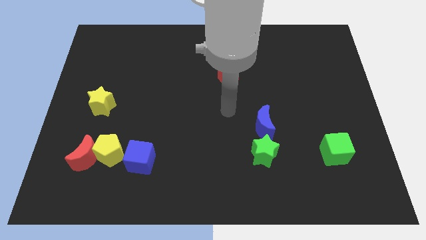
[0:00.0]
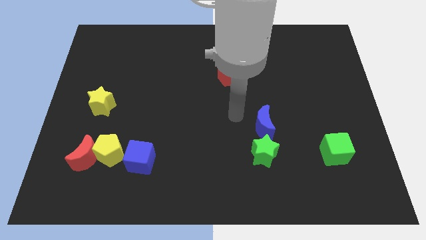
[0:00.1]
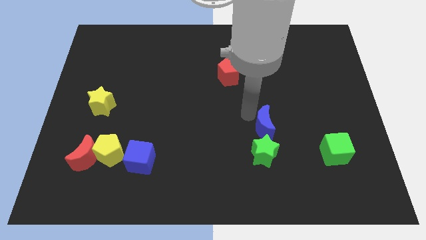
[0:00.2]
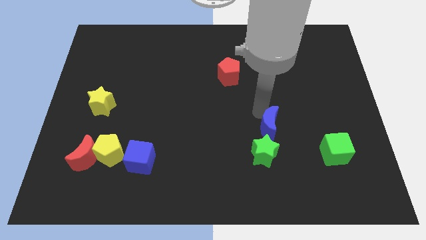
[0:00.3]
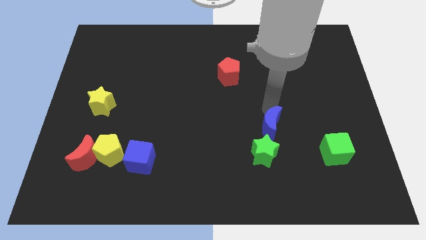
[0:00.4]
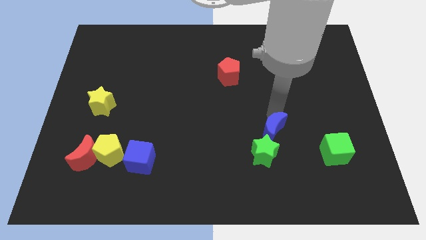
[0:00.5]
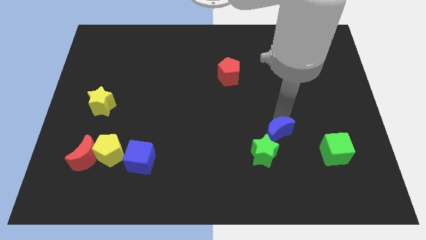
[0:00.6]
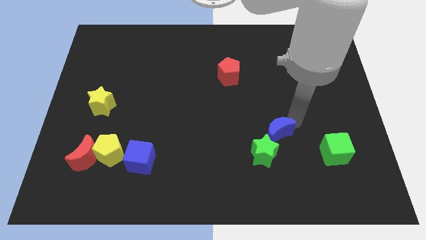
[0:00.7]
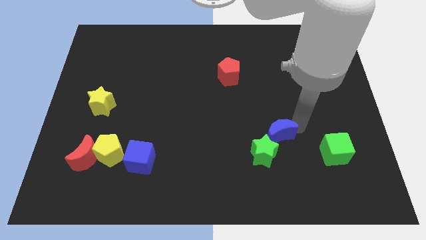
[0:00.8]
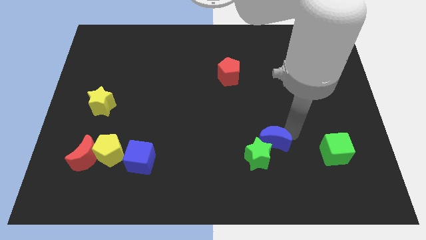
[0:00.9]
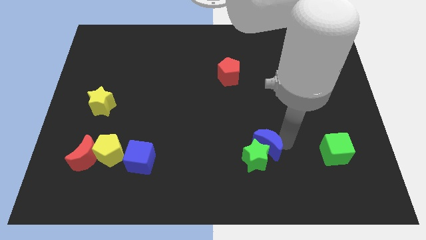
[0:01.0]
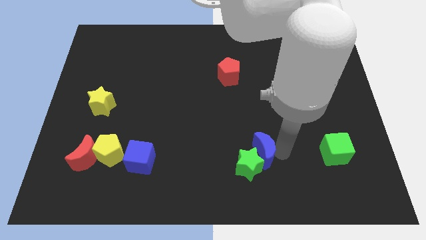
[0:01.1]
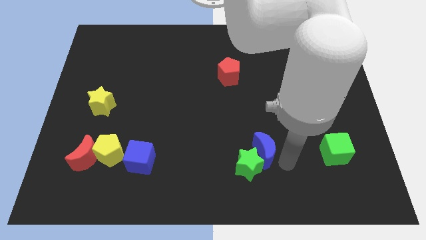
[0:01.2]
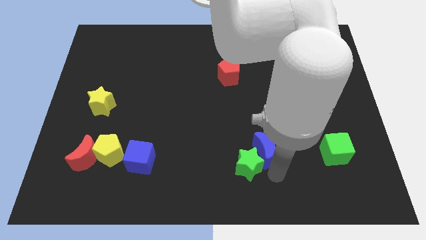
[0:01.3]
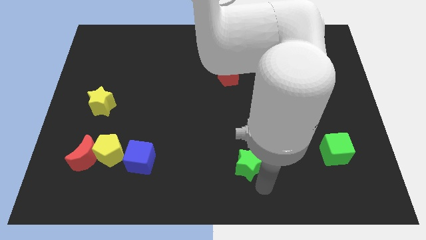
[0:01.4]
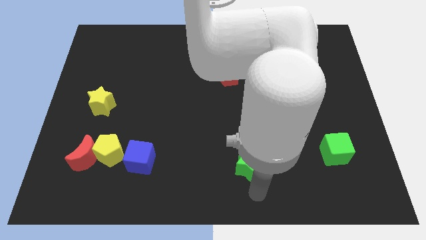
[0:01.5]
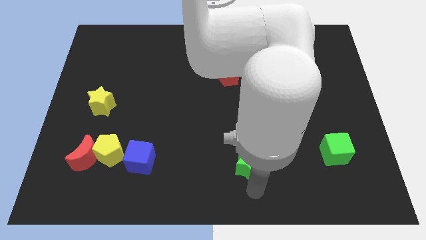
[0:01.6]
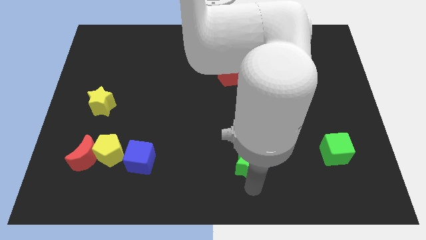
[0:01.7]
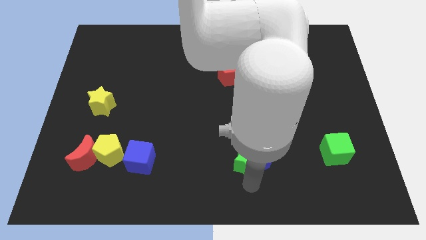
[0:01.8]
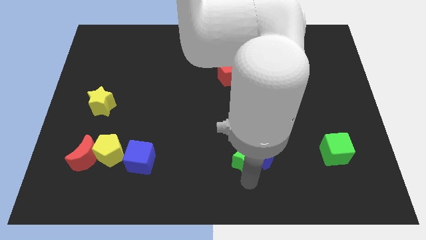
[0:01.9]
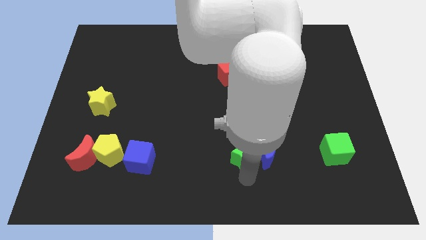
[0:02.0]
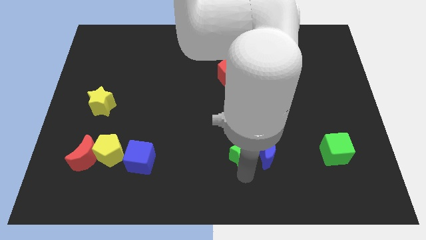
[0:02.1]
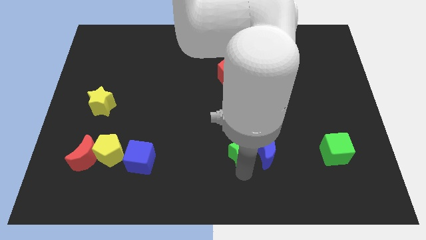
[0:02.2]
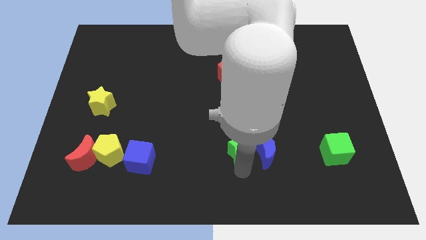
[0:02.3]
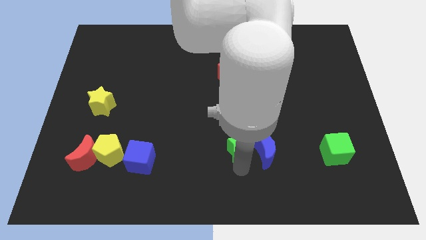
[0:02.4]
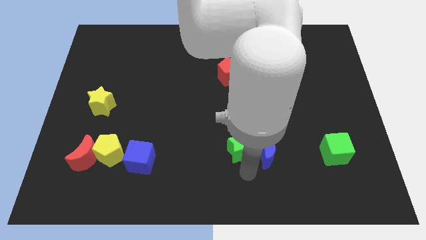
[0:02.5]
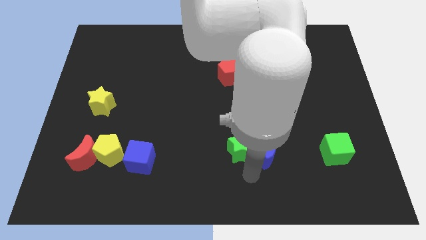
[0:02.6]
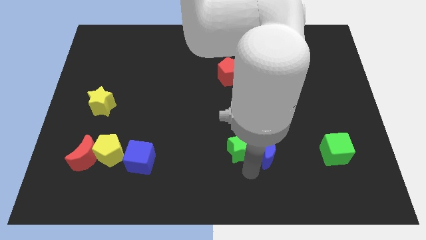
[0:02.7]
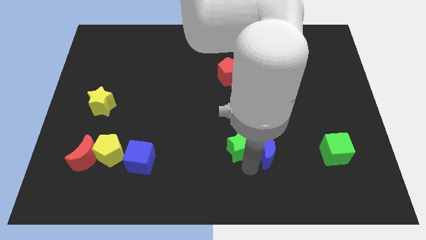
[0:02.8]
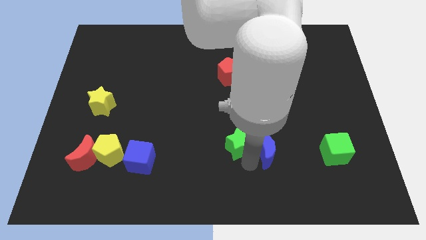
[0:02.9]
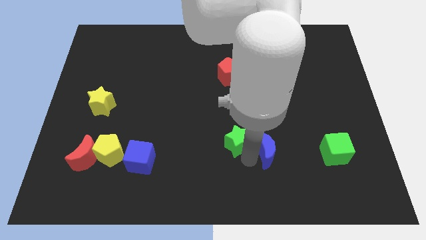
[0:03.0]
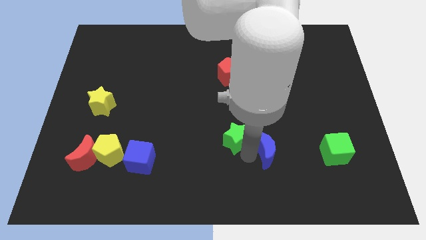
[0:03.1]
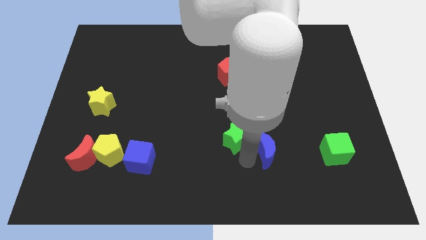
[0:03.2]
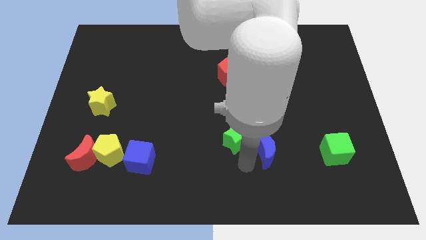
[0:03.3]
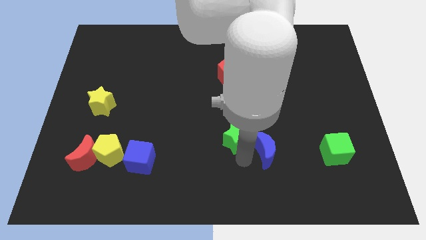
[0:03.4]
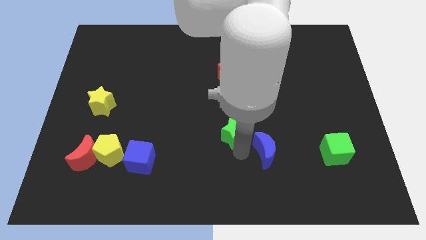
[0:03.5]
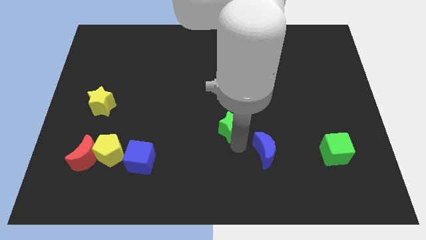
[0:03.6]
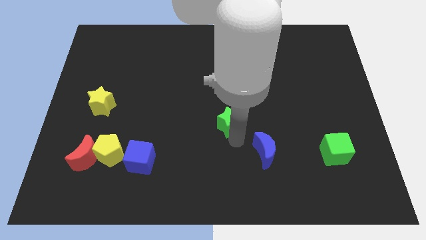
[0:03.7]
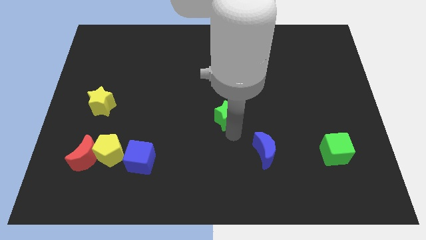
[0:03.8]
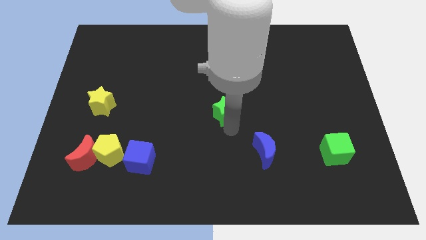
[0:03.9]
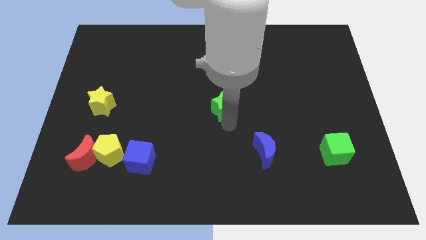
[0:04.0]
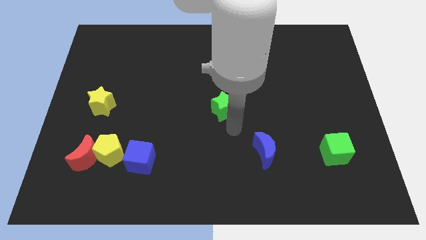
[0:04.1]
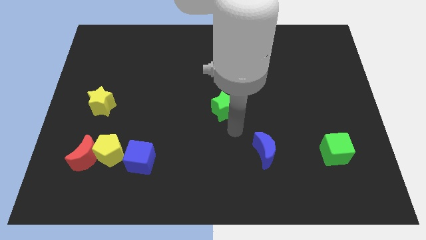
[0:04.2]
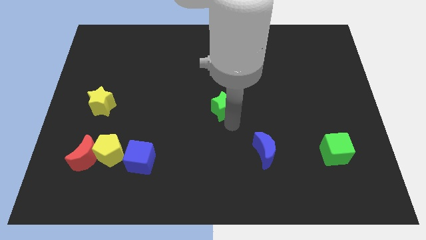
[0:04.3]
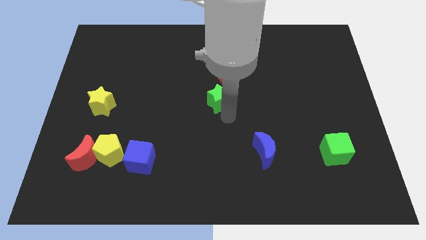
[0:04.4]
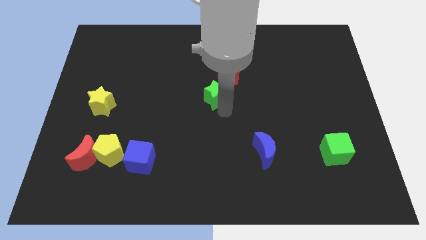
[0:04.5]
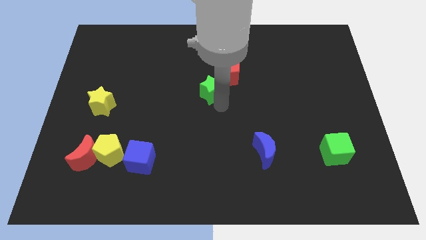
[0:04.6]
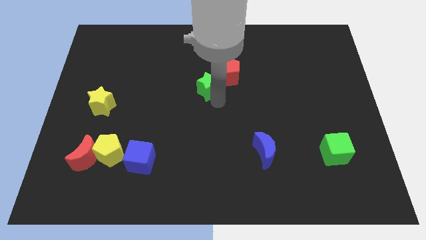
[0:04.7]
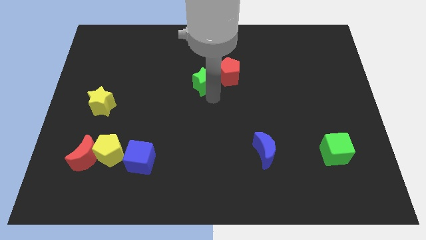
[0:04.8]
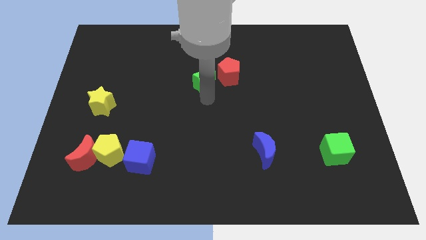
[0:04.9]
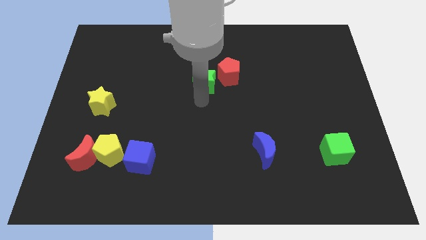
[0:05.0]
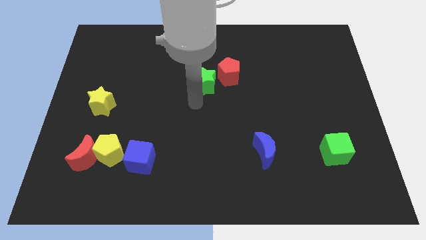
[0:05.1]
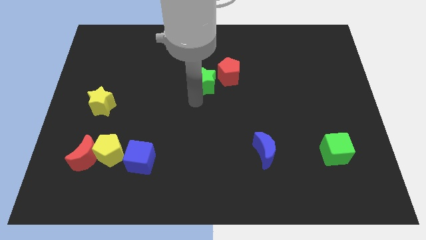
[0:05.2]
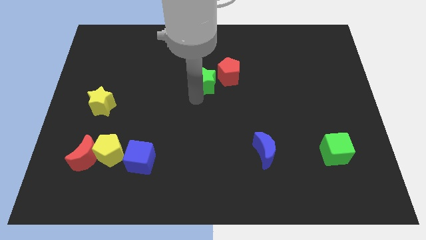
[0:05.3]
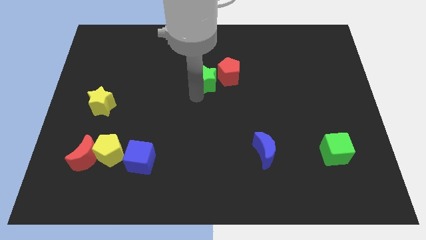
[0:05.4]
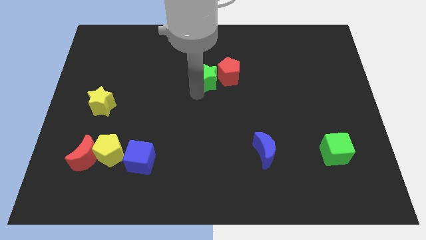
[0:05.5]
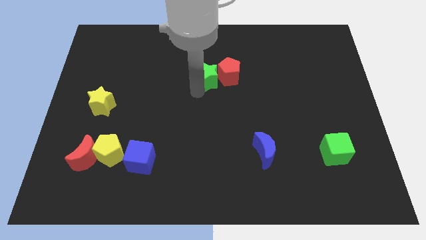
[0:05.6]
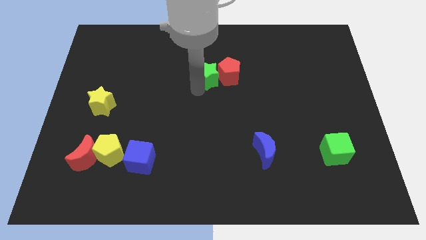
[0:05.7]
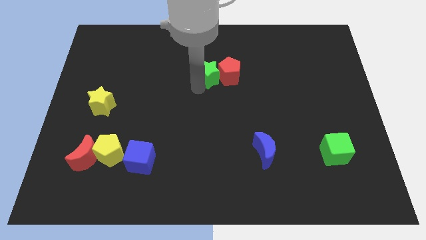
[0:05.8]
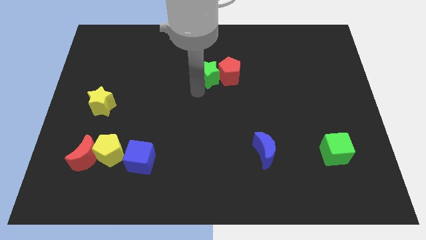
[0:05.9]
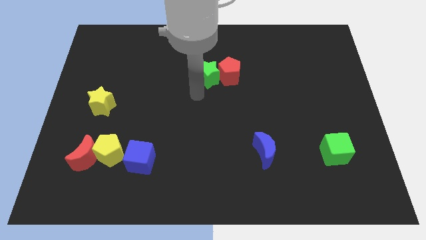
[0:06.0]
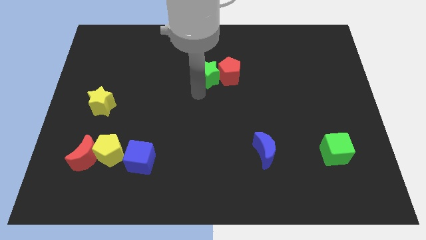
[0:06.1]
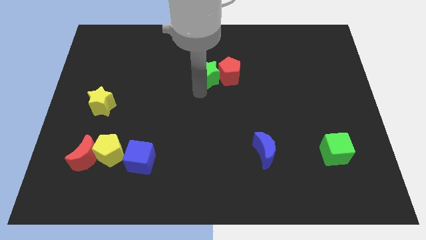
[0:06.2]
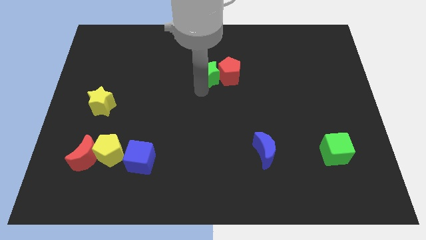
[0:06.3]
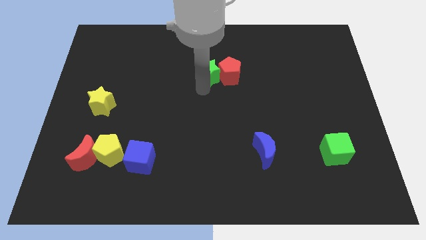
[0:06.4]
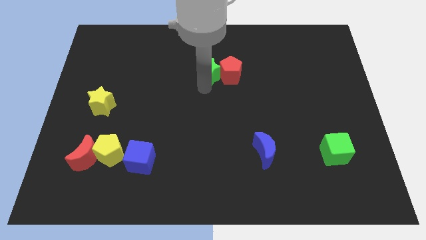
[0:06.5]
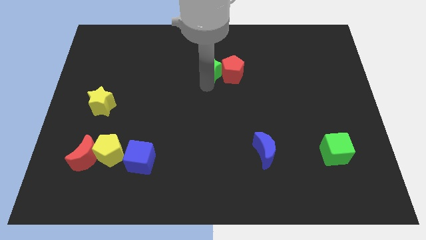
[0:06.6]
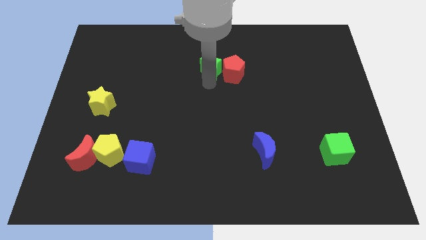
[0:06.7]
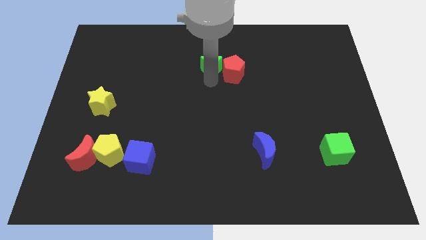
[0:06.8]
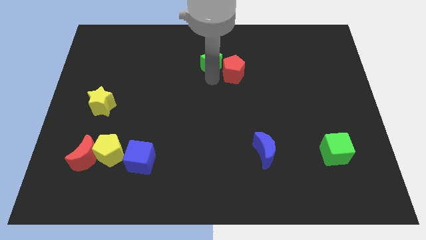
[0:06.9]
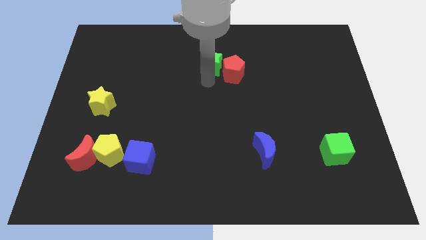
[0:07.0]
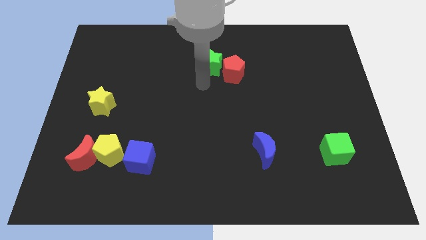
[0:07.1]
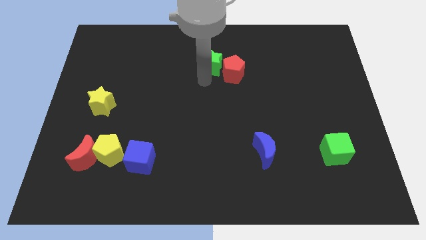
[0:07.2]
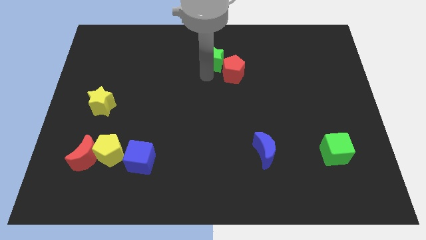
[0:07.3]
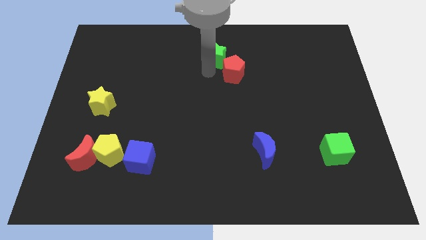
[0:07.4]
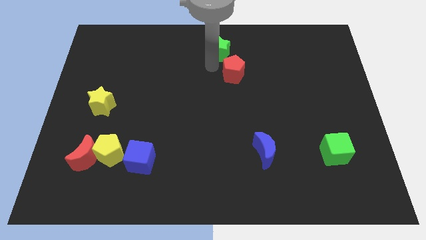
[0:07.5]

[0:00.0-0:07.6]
slide the green star to the towards your base
